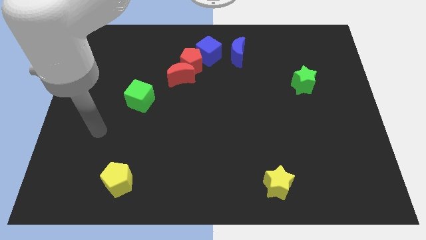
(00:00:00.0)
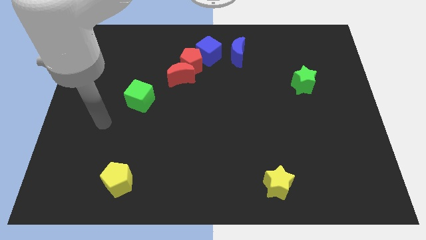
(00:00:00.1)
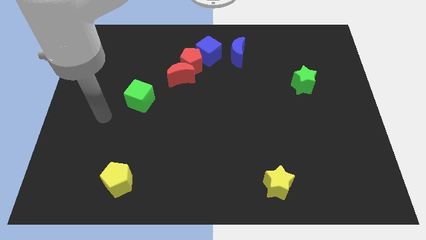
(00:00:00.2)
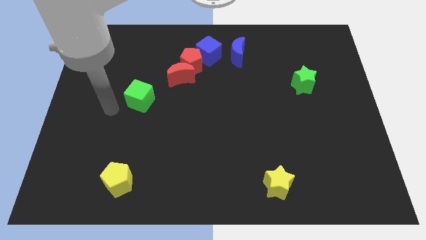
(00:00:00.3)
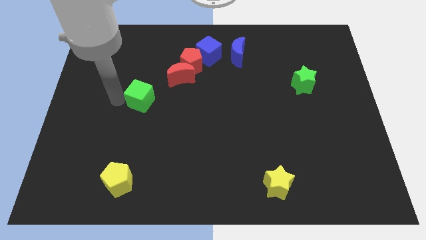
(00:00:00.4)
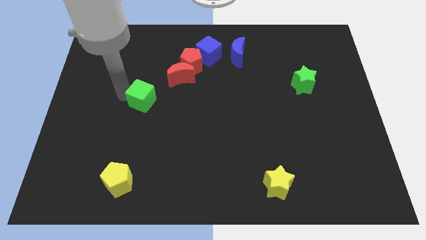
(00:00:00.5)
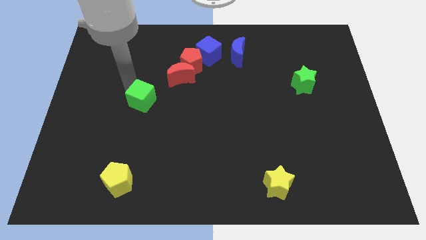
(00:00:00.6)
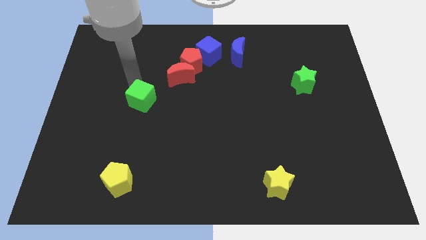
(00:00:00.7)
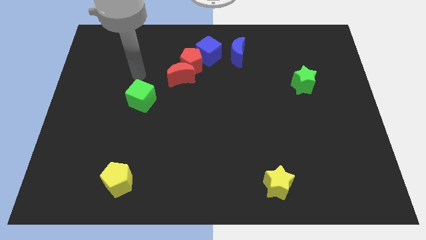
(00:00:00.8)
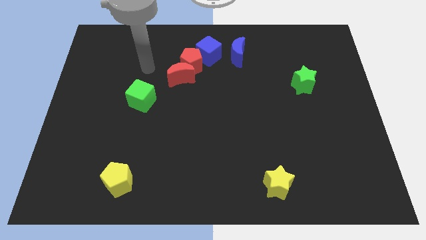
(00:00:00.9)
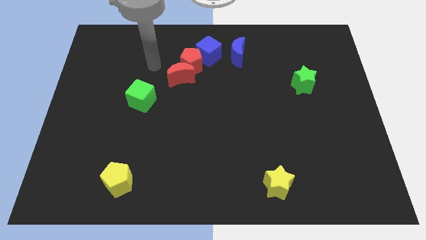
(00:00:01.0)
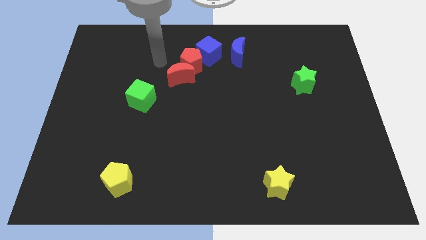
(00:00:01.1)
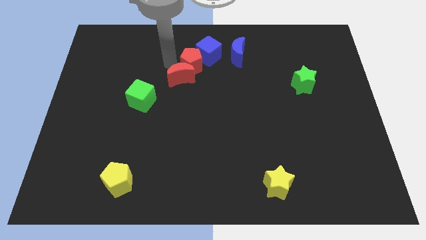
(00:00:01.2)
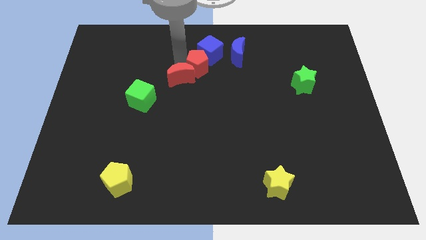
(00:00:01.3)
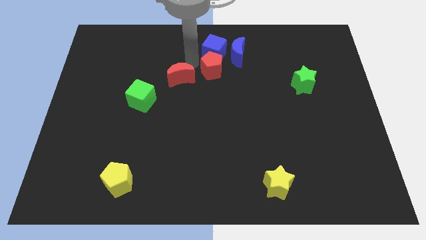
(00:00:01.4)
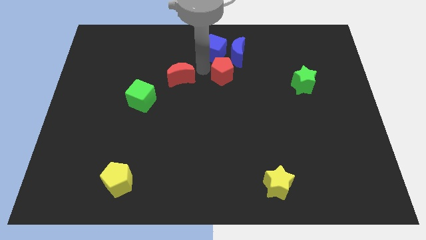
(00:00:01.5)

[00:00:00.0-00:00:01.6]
move the red moon away from the red pentagon

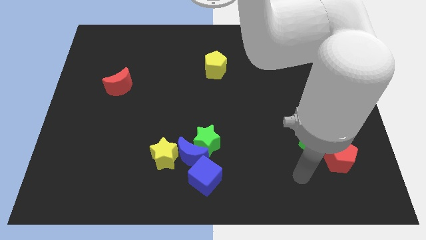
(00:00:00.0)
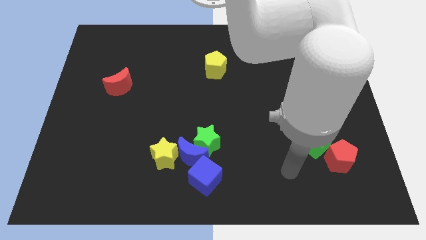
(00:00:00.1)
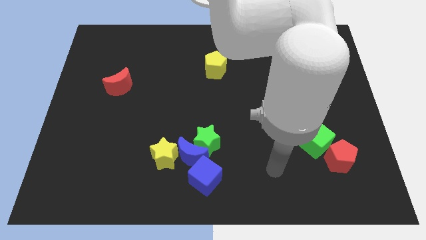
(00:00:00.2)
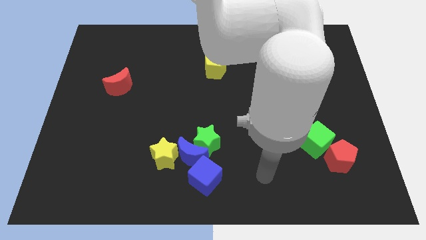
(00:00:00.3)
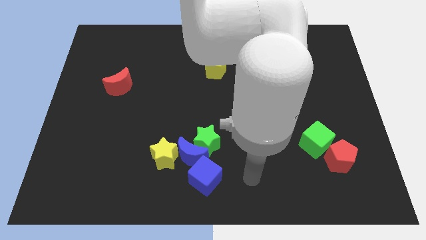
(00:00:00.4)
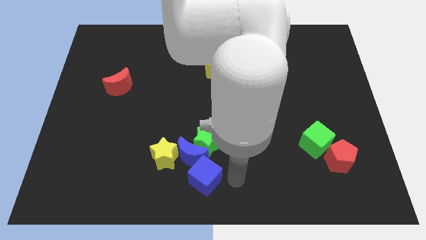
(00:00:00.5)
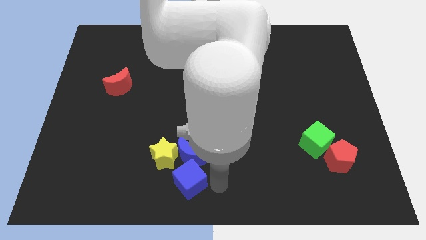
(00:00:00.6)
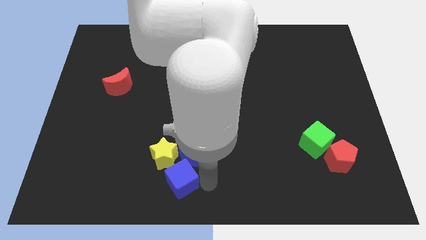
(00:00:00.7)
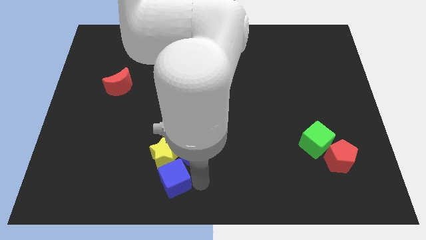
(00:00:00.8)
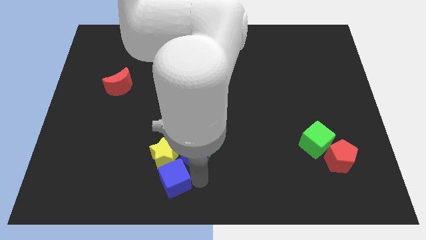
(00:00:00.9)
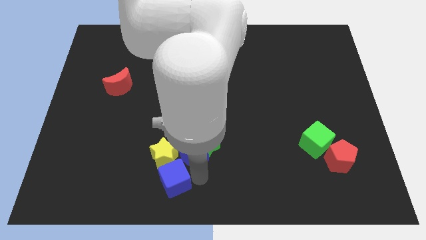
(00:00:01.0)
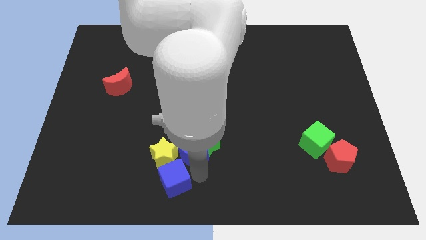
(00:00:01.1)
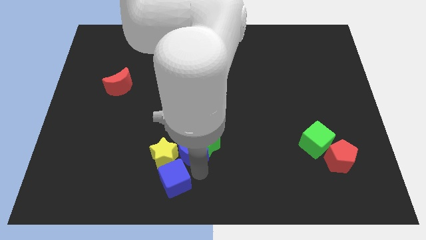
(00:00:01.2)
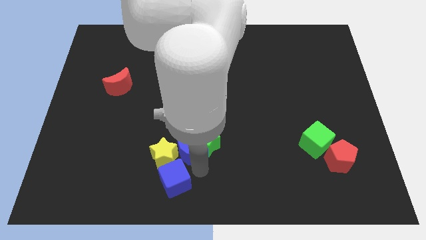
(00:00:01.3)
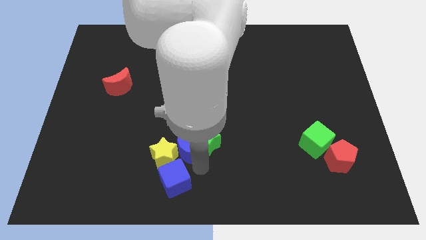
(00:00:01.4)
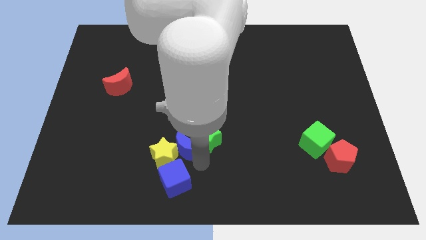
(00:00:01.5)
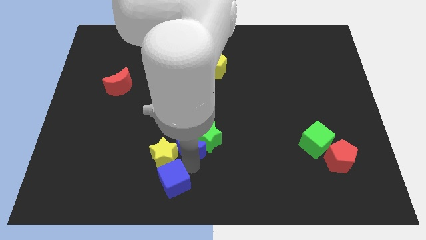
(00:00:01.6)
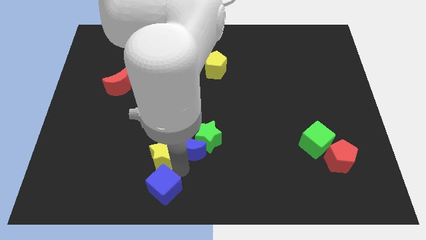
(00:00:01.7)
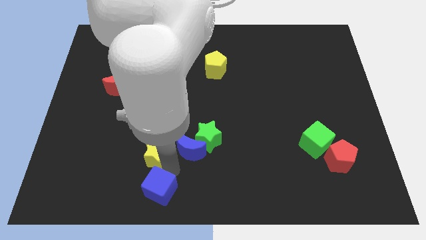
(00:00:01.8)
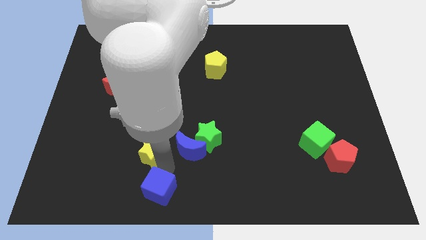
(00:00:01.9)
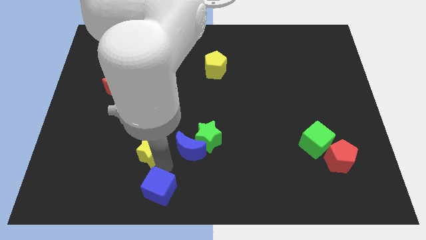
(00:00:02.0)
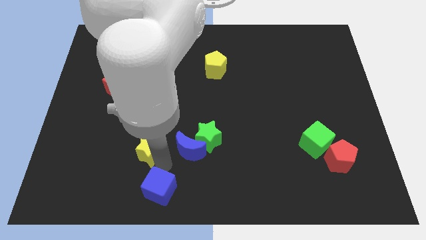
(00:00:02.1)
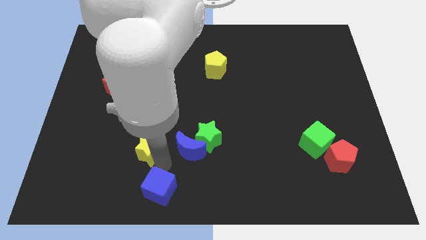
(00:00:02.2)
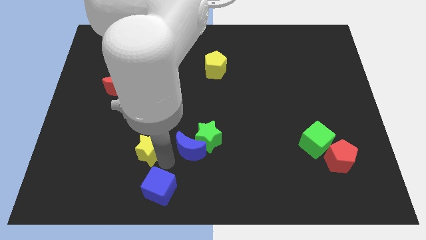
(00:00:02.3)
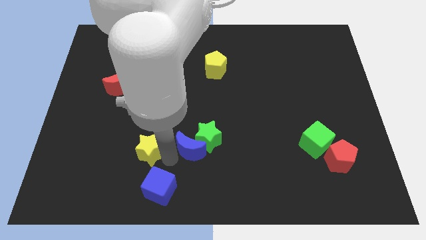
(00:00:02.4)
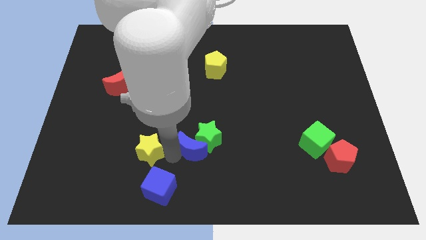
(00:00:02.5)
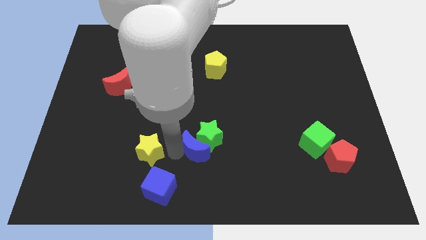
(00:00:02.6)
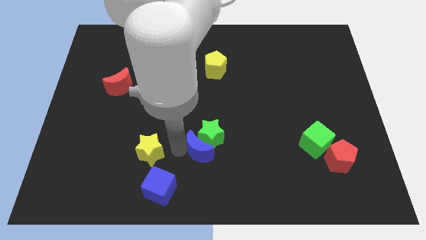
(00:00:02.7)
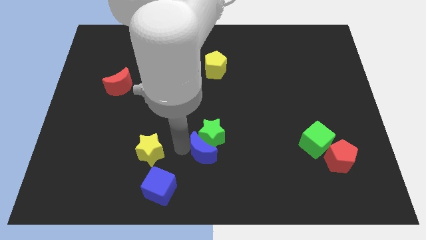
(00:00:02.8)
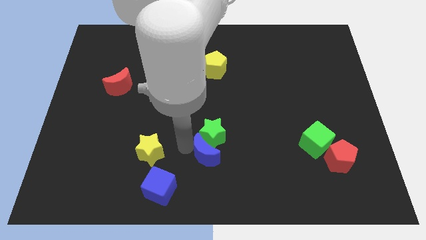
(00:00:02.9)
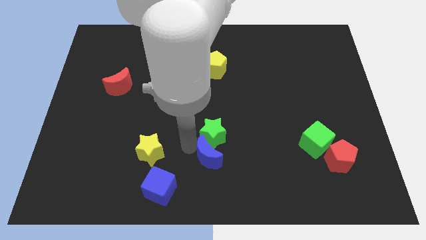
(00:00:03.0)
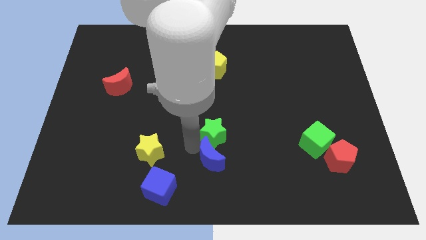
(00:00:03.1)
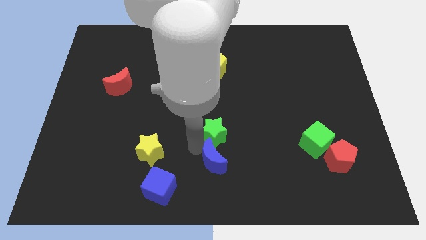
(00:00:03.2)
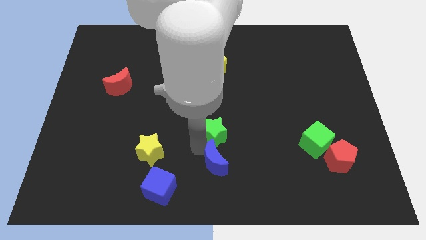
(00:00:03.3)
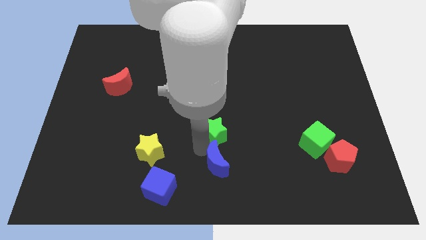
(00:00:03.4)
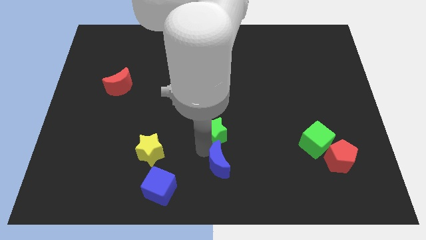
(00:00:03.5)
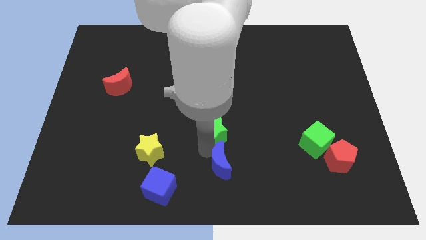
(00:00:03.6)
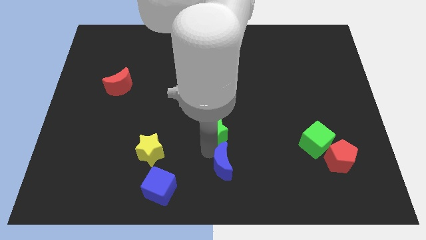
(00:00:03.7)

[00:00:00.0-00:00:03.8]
move the blue moon away from the green star, yellow star, and blue cube

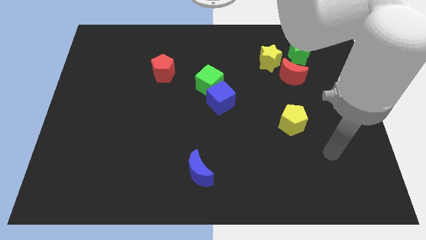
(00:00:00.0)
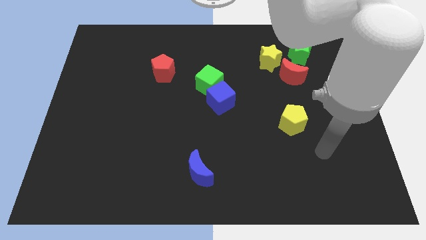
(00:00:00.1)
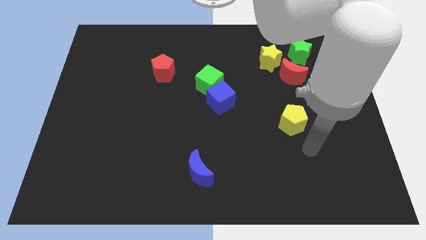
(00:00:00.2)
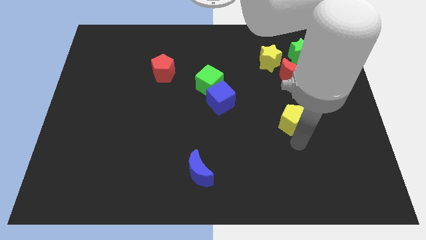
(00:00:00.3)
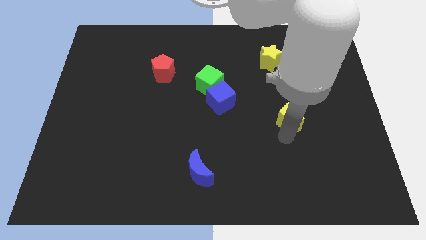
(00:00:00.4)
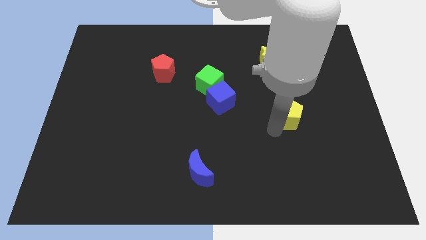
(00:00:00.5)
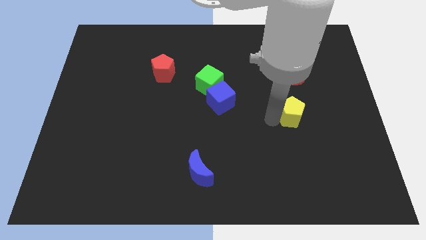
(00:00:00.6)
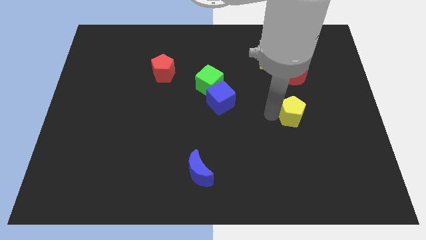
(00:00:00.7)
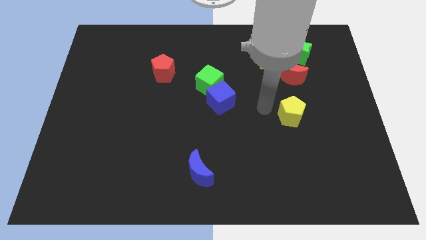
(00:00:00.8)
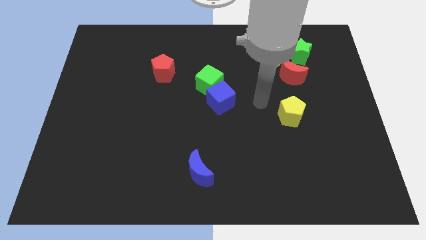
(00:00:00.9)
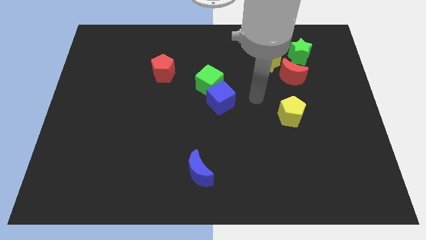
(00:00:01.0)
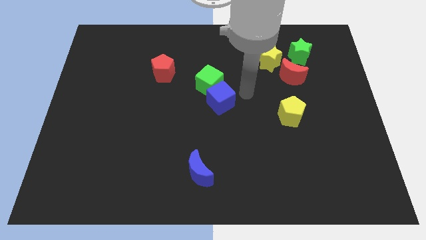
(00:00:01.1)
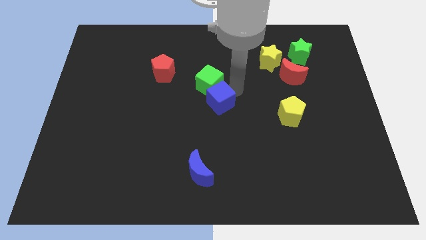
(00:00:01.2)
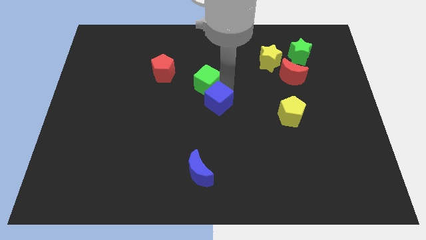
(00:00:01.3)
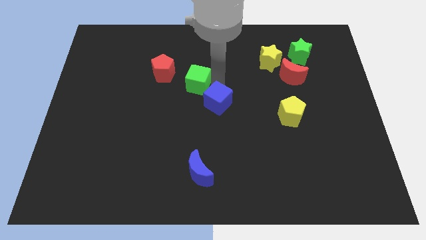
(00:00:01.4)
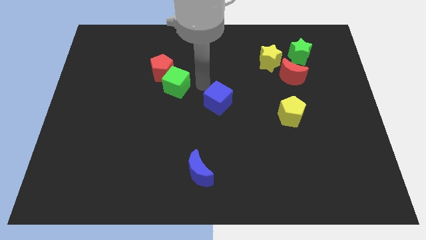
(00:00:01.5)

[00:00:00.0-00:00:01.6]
move the blue cube away from the green cube

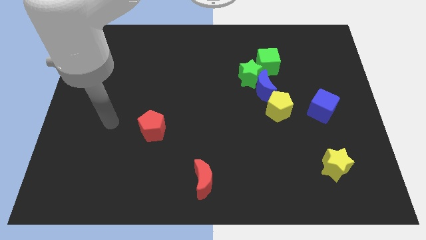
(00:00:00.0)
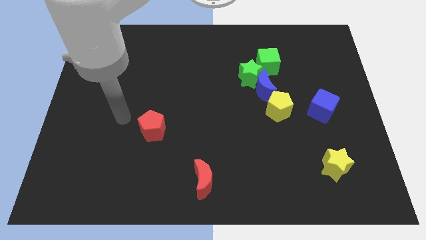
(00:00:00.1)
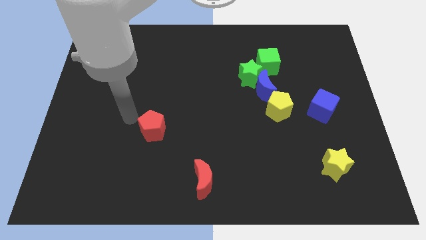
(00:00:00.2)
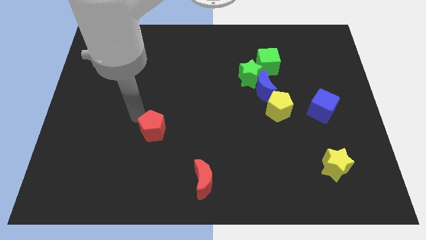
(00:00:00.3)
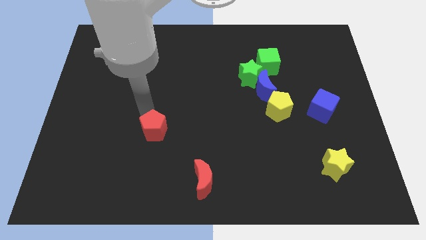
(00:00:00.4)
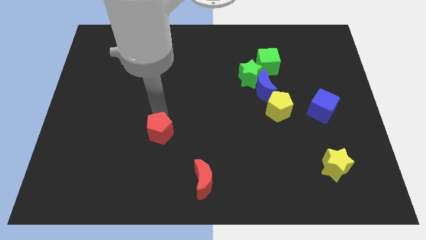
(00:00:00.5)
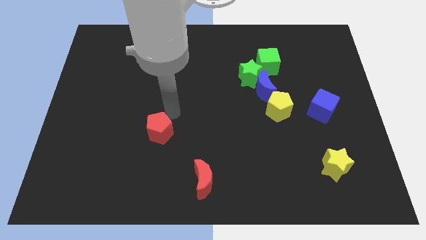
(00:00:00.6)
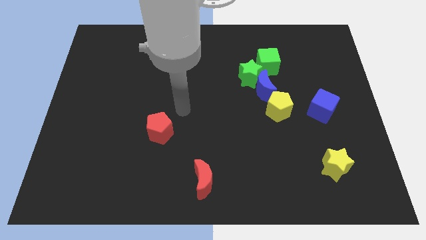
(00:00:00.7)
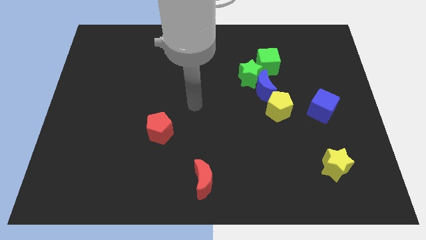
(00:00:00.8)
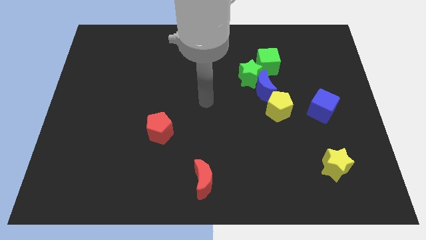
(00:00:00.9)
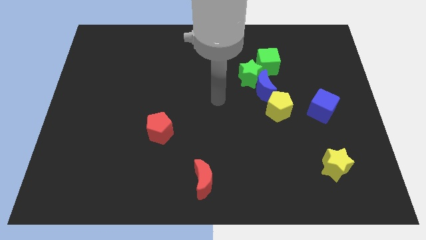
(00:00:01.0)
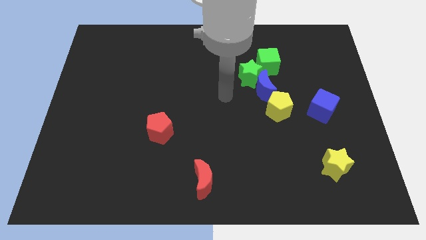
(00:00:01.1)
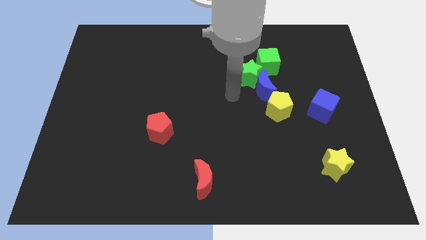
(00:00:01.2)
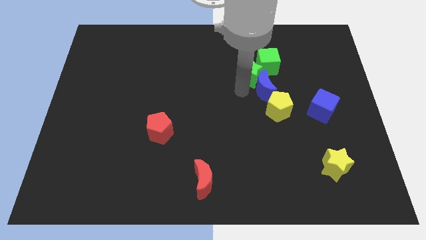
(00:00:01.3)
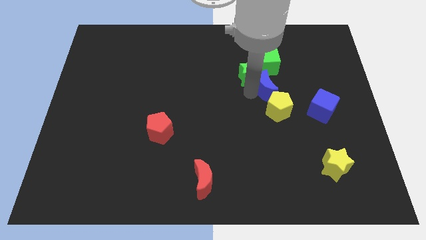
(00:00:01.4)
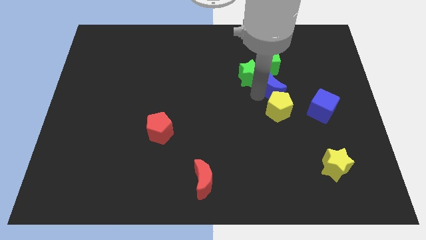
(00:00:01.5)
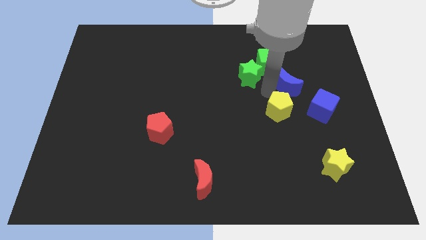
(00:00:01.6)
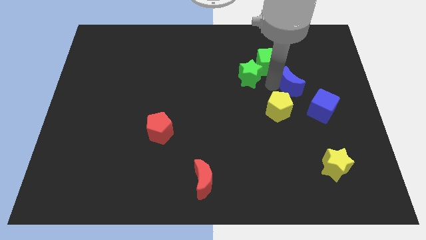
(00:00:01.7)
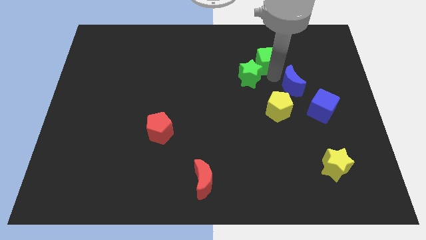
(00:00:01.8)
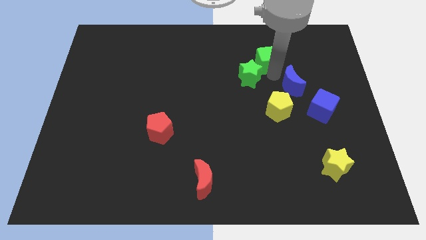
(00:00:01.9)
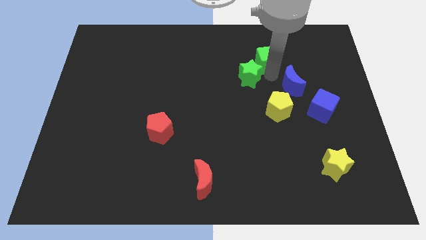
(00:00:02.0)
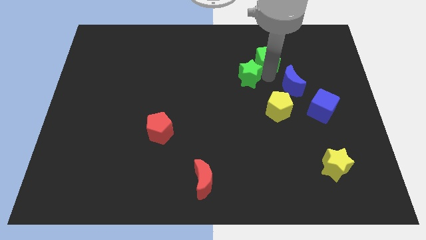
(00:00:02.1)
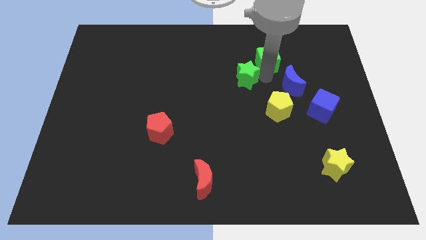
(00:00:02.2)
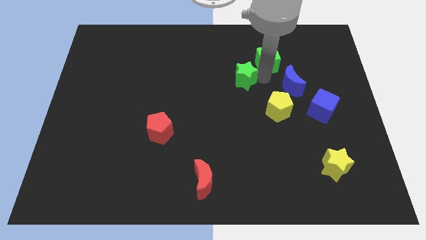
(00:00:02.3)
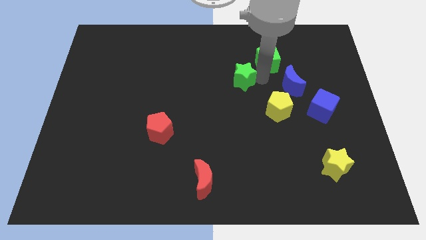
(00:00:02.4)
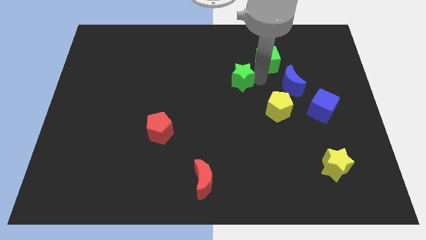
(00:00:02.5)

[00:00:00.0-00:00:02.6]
separate the green star from the blue moon and green cube
